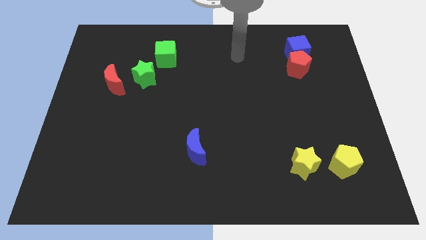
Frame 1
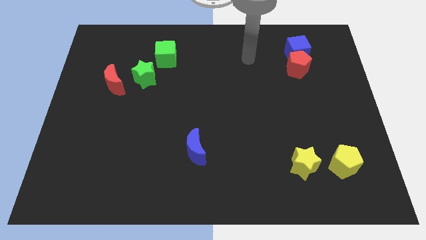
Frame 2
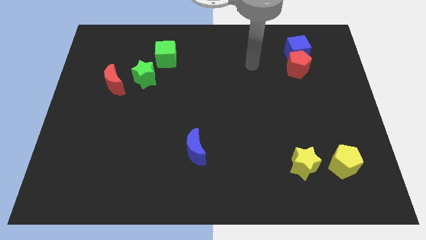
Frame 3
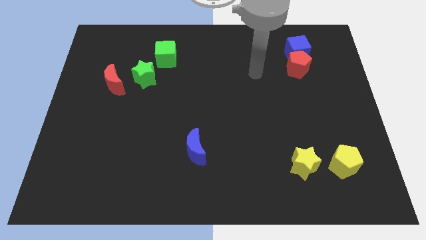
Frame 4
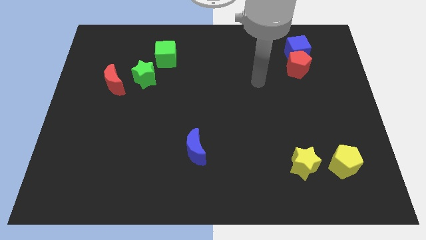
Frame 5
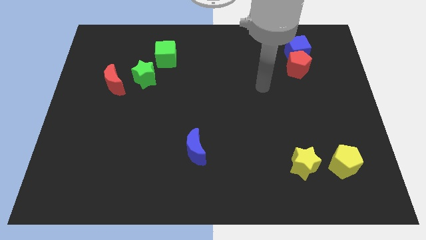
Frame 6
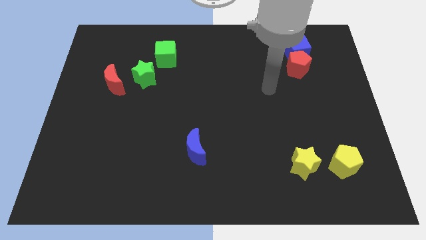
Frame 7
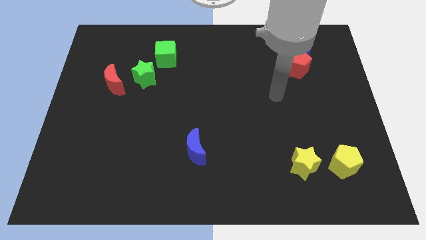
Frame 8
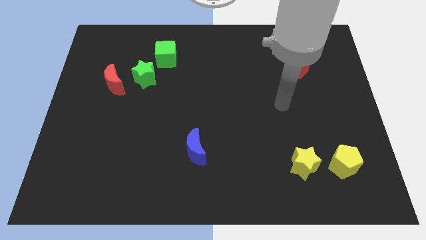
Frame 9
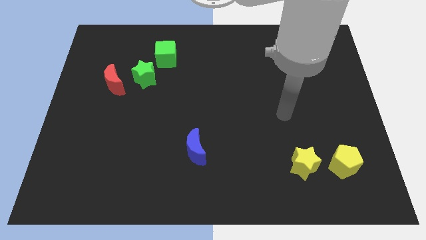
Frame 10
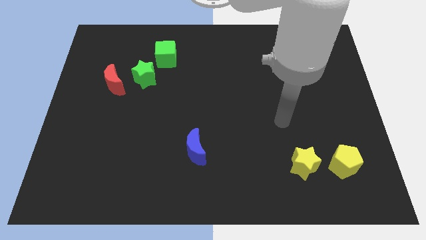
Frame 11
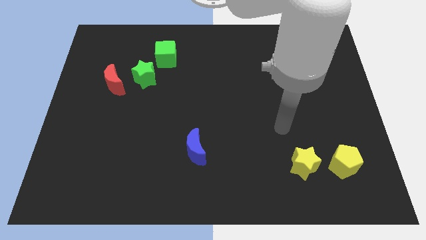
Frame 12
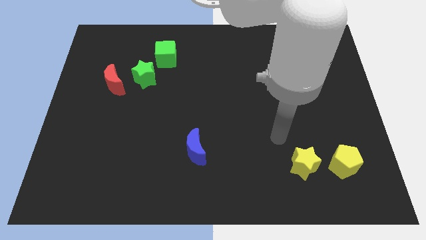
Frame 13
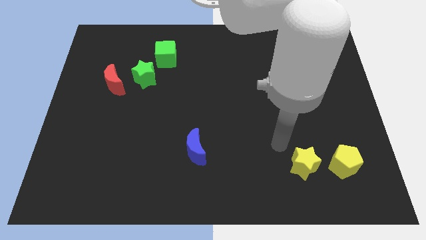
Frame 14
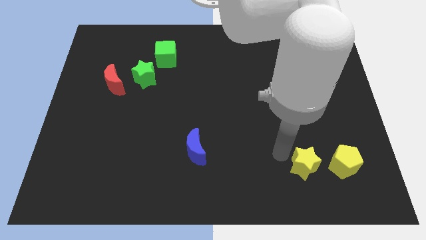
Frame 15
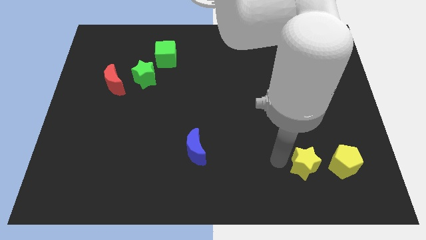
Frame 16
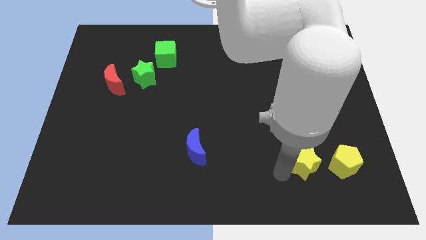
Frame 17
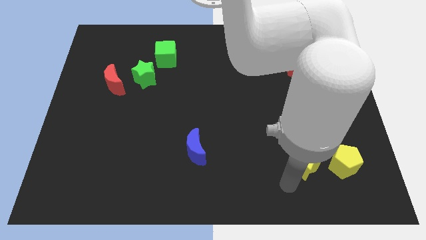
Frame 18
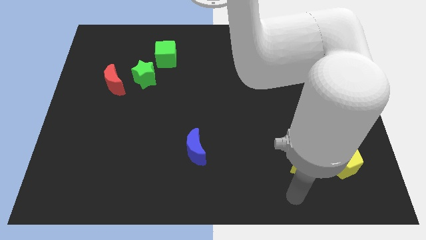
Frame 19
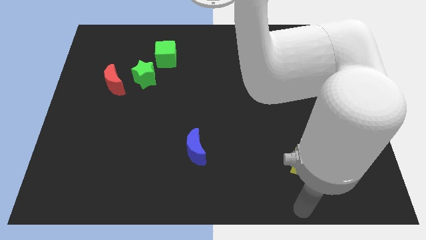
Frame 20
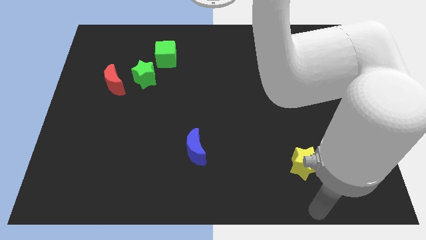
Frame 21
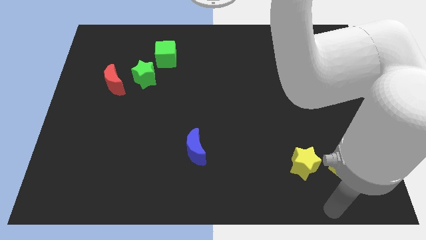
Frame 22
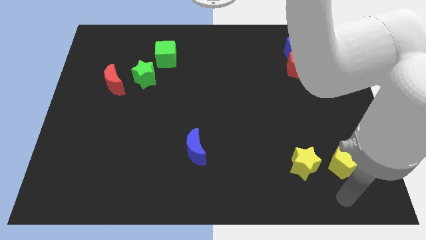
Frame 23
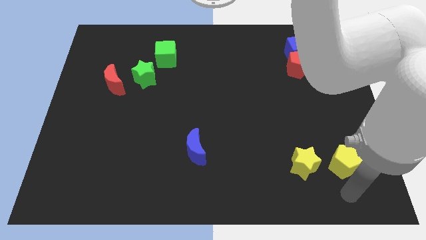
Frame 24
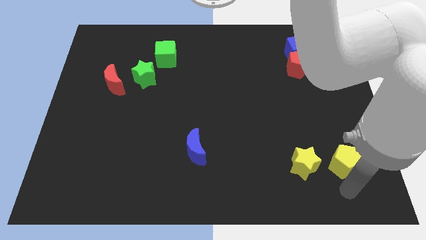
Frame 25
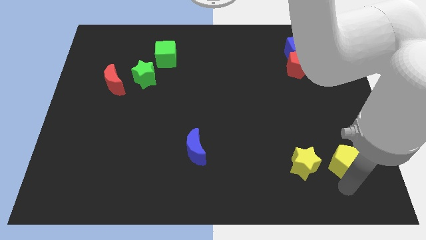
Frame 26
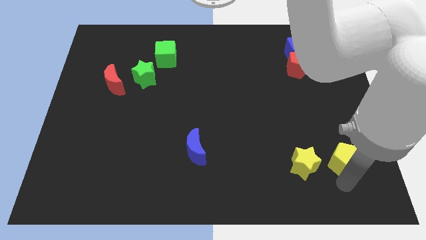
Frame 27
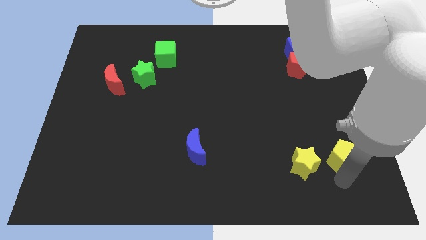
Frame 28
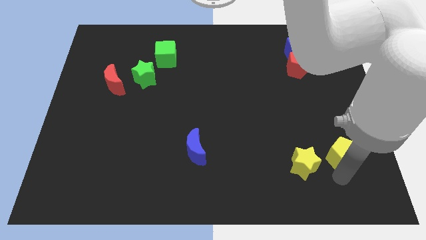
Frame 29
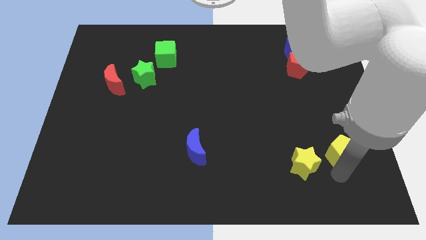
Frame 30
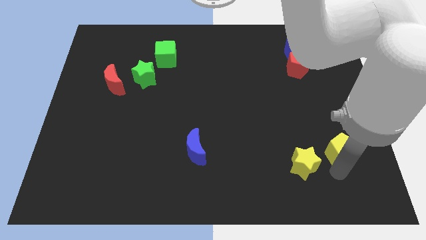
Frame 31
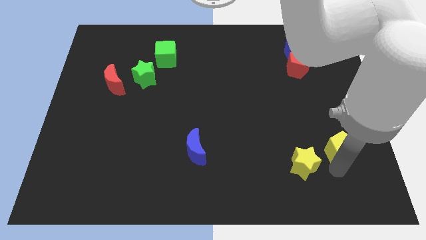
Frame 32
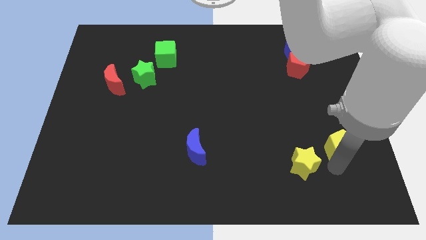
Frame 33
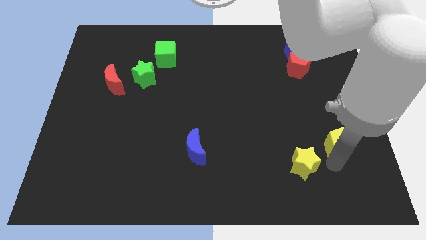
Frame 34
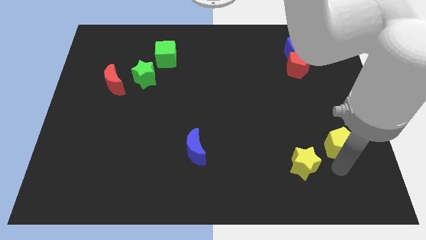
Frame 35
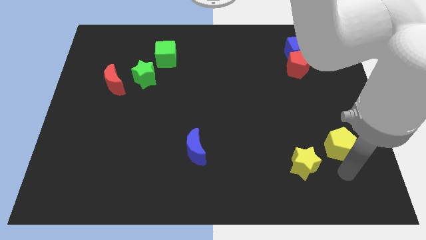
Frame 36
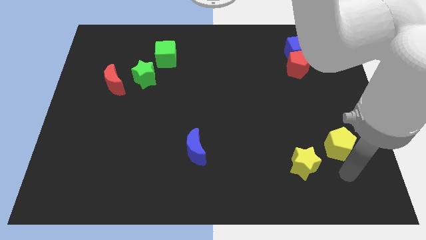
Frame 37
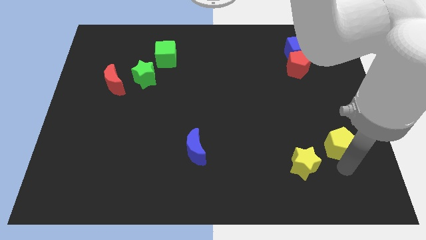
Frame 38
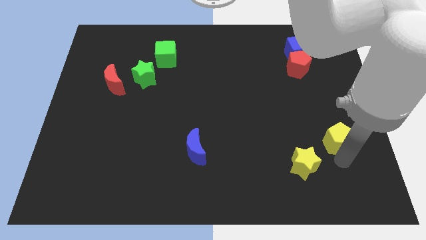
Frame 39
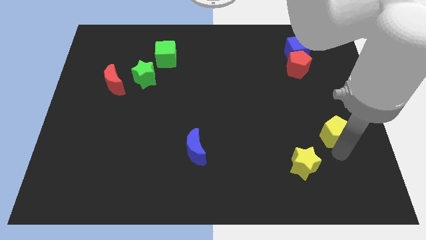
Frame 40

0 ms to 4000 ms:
move the yellow pentagon upwards somewhat

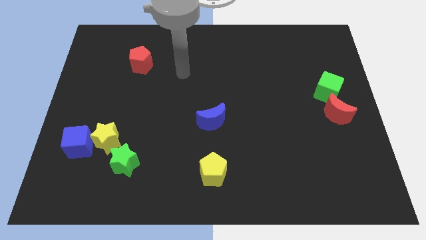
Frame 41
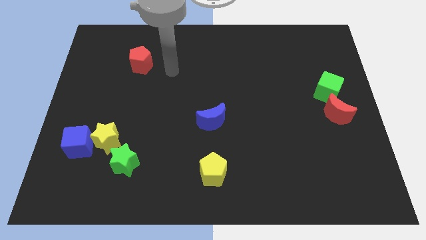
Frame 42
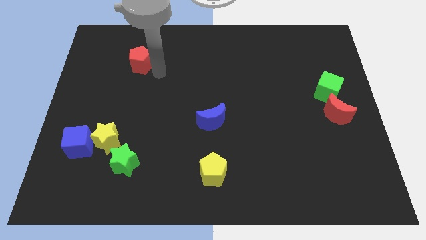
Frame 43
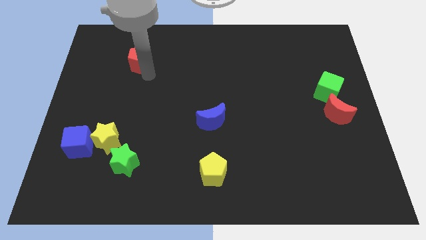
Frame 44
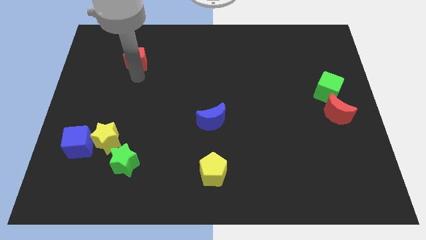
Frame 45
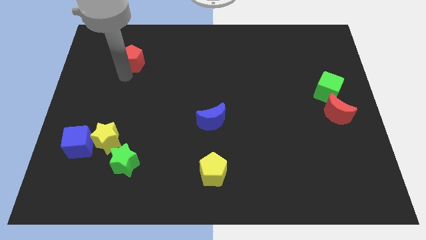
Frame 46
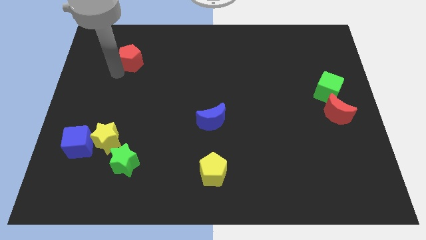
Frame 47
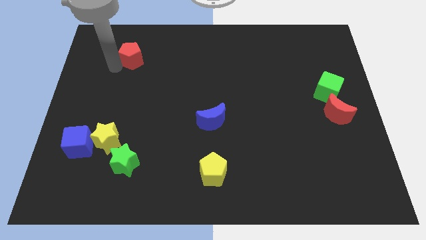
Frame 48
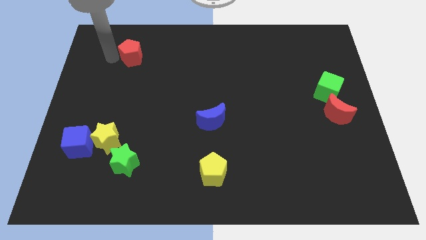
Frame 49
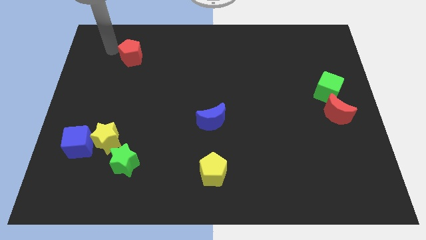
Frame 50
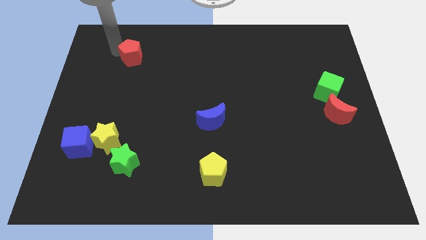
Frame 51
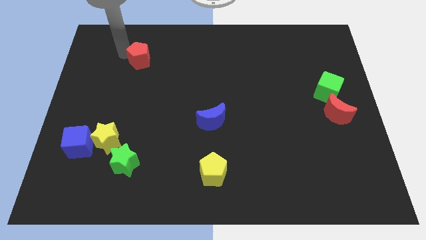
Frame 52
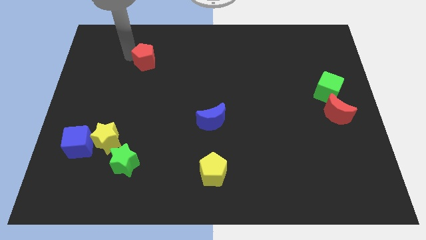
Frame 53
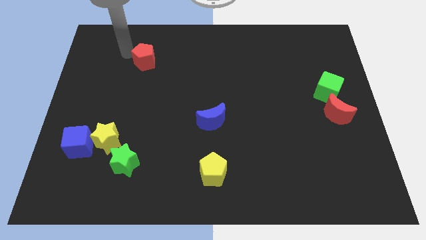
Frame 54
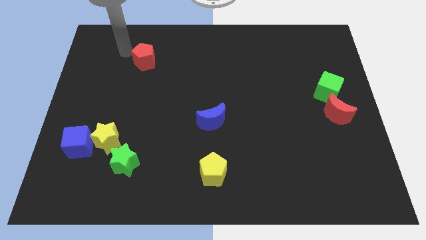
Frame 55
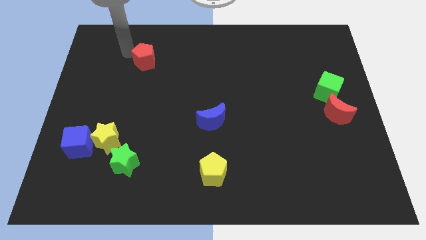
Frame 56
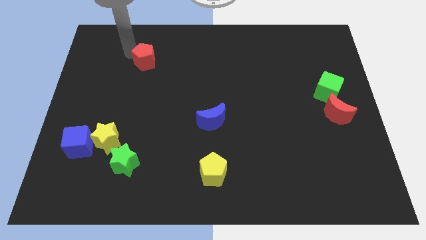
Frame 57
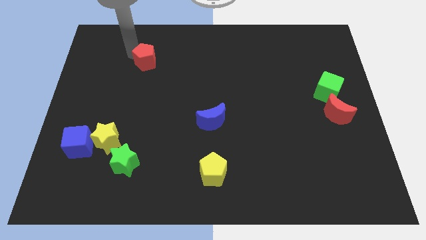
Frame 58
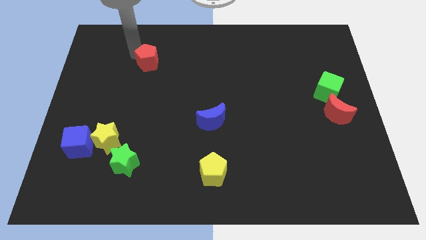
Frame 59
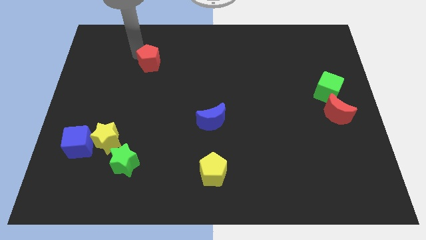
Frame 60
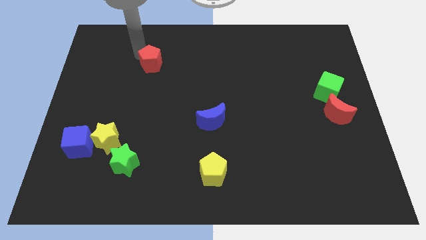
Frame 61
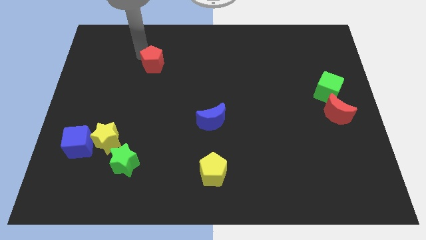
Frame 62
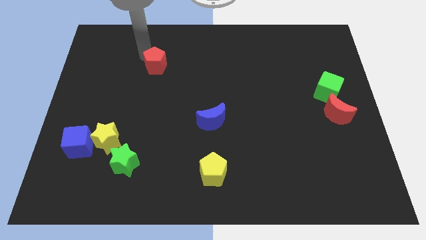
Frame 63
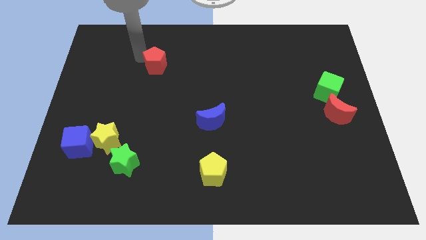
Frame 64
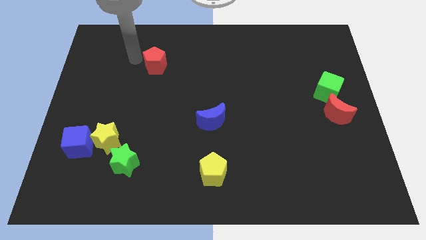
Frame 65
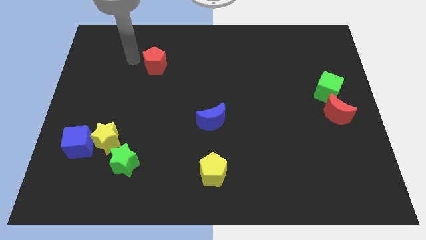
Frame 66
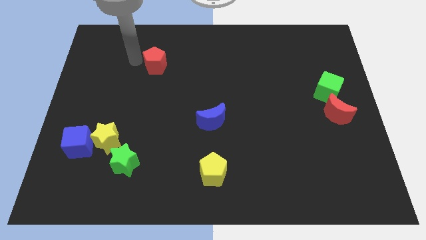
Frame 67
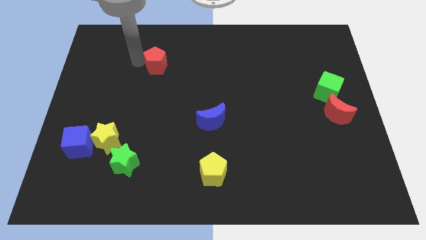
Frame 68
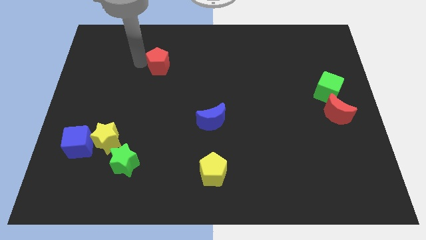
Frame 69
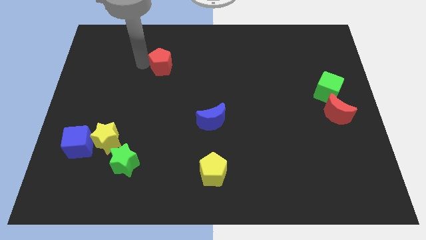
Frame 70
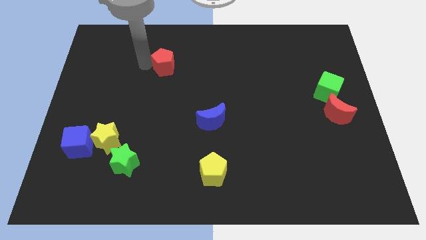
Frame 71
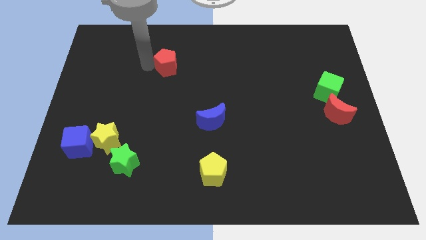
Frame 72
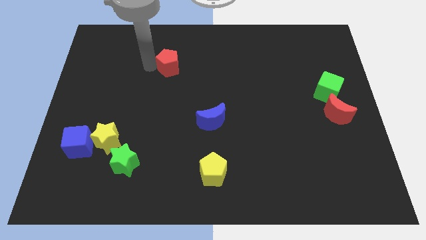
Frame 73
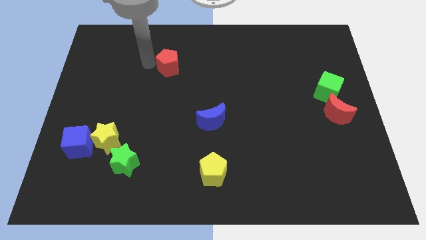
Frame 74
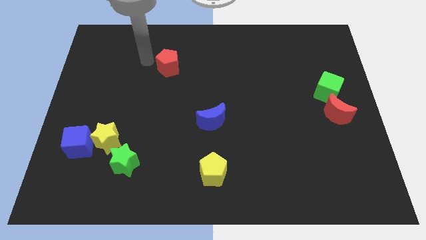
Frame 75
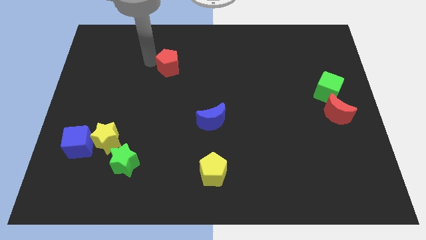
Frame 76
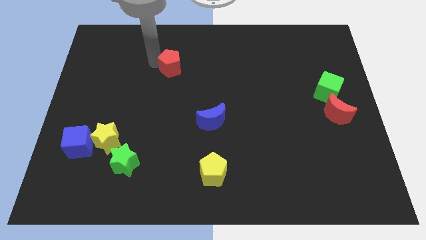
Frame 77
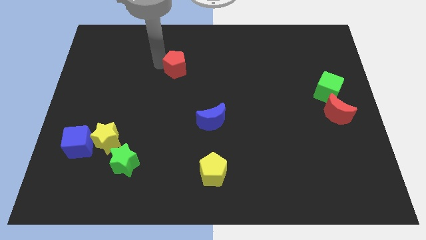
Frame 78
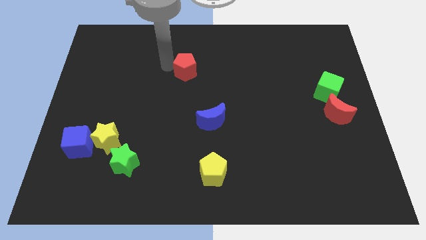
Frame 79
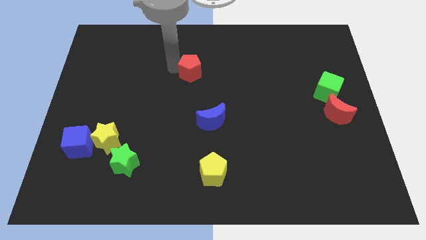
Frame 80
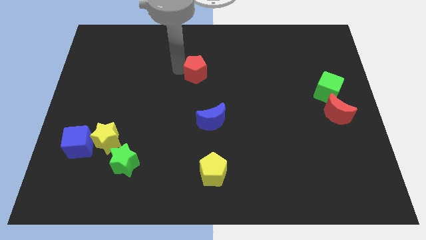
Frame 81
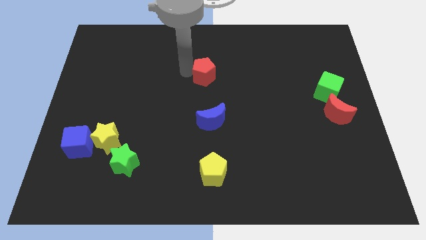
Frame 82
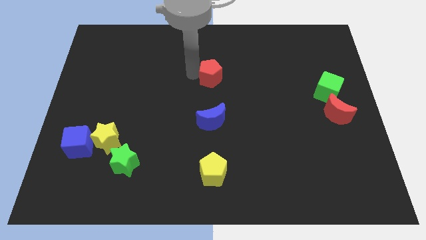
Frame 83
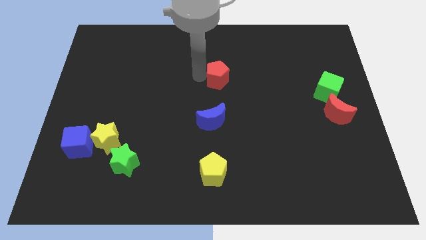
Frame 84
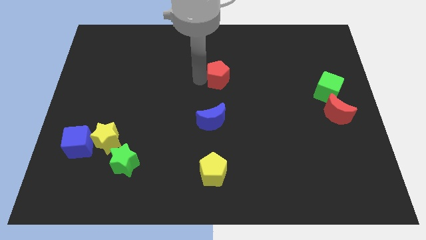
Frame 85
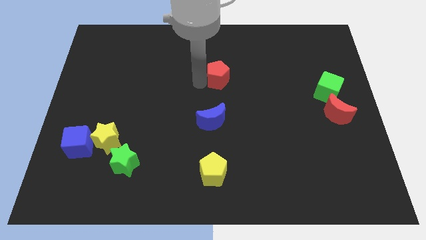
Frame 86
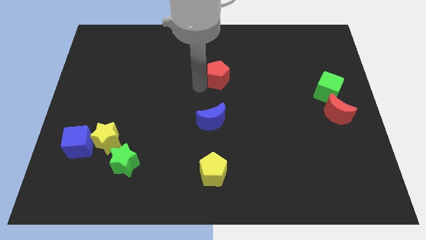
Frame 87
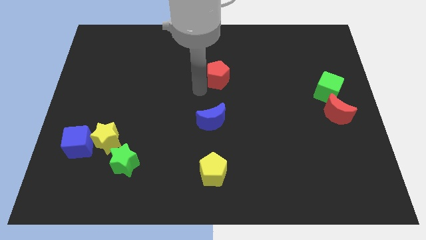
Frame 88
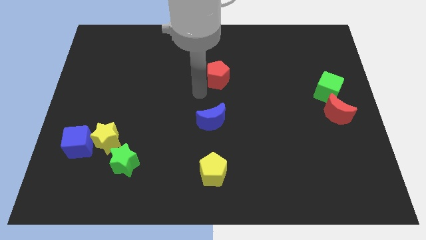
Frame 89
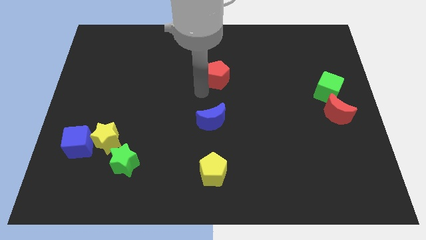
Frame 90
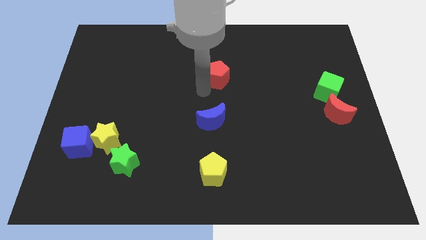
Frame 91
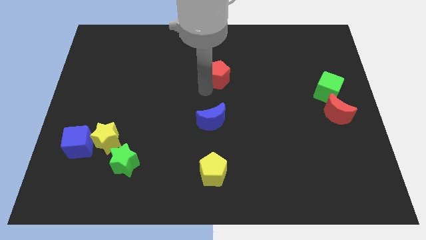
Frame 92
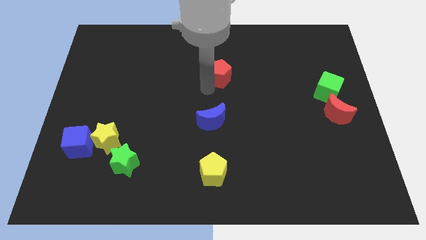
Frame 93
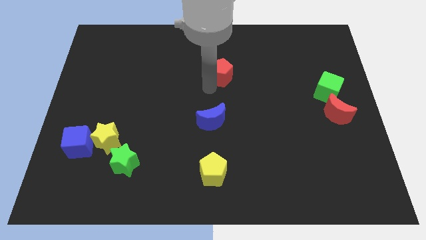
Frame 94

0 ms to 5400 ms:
move the red pentagon to the right
